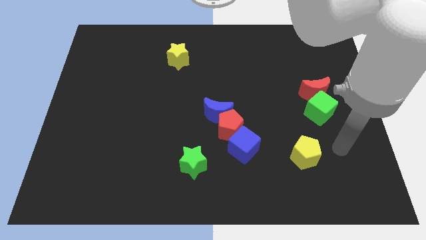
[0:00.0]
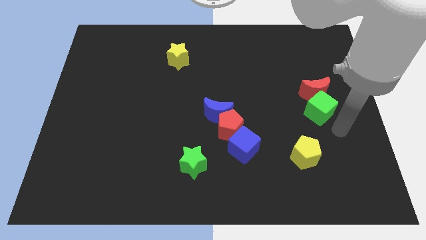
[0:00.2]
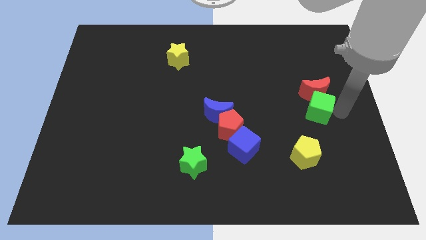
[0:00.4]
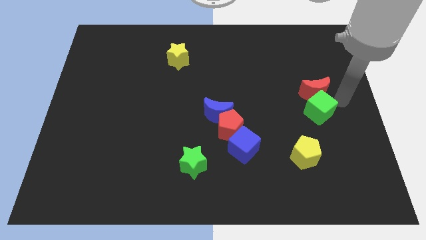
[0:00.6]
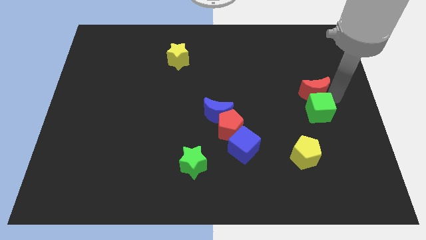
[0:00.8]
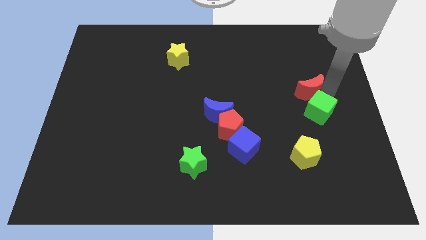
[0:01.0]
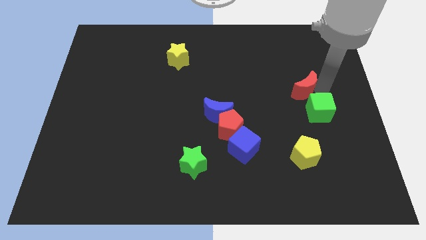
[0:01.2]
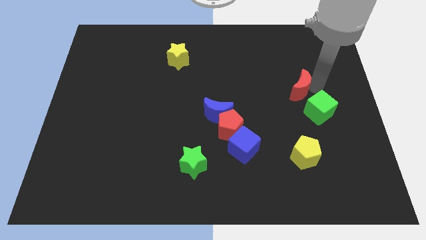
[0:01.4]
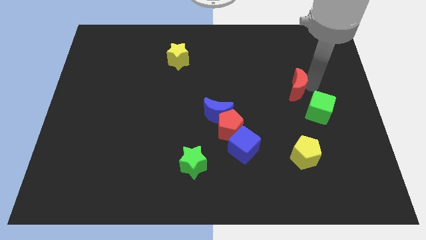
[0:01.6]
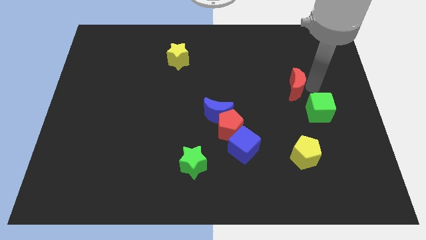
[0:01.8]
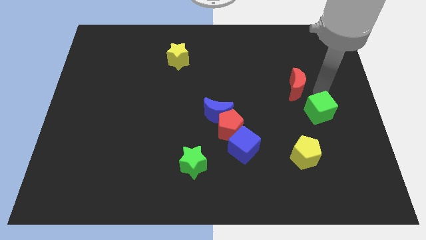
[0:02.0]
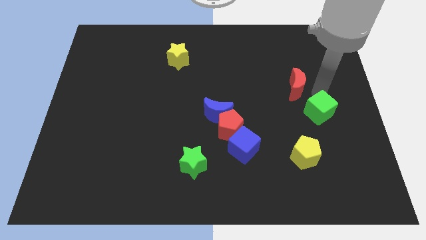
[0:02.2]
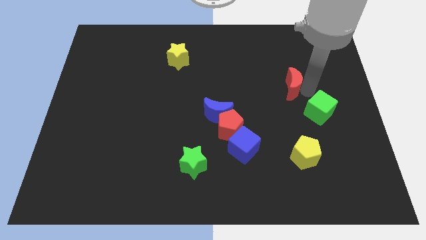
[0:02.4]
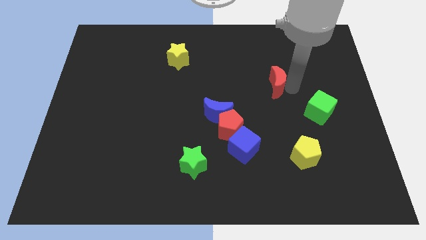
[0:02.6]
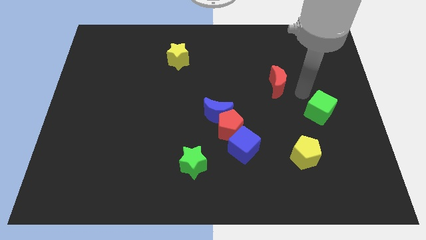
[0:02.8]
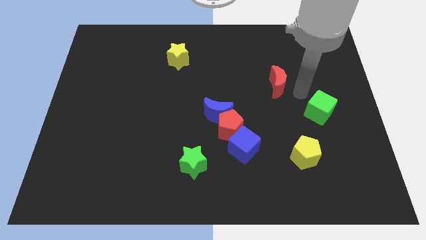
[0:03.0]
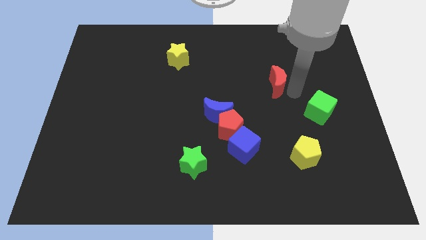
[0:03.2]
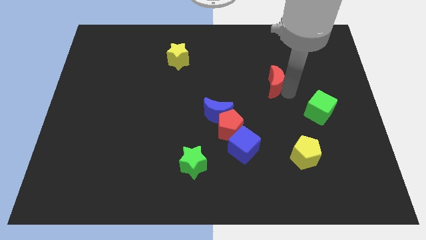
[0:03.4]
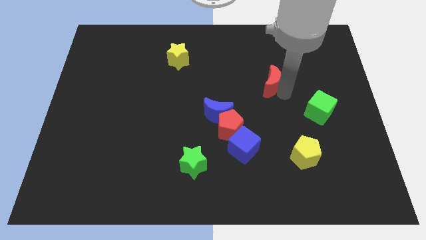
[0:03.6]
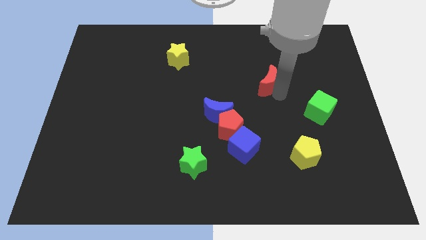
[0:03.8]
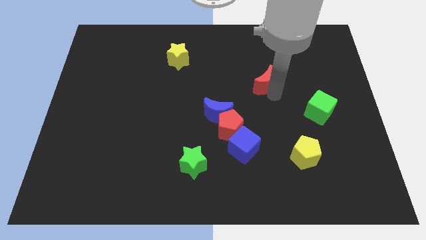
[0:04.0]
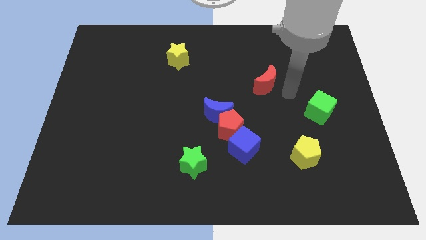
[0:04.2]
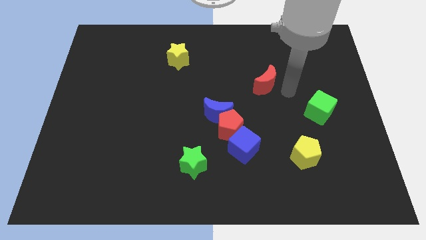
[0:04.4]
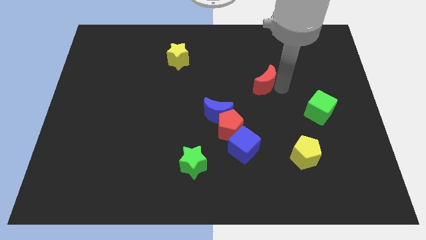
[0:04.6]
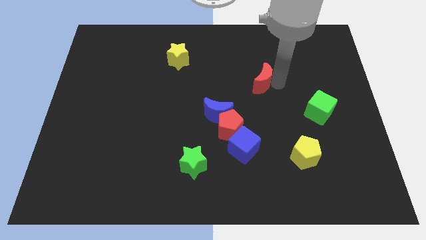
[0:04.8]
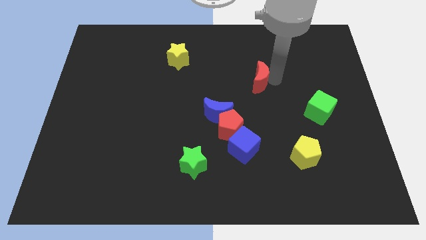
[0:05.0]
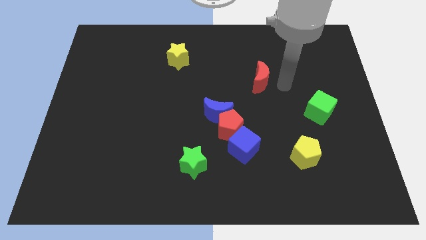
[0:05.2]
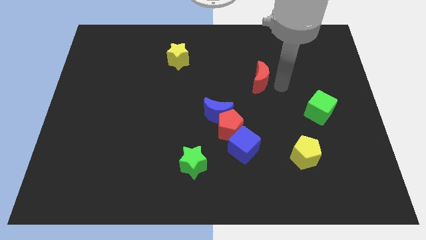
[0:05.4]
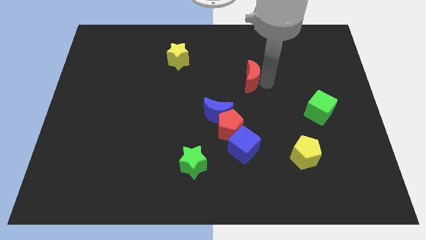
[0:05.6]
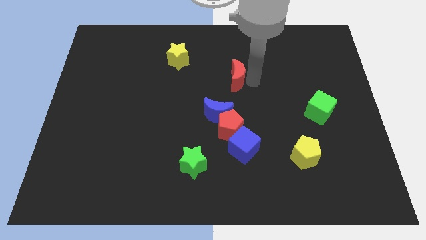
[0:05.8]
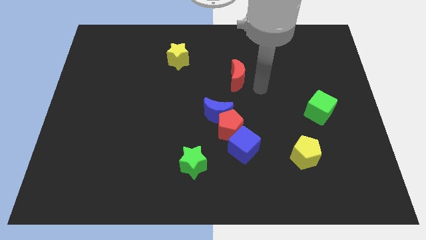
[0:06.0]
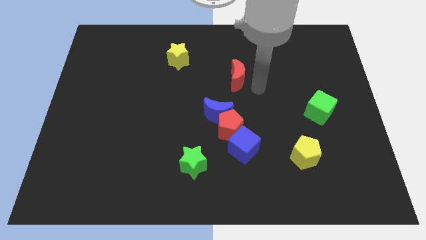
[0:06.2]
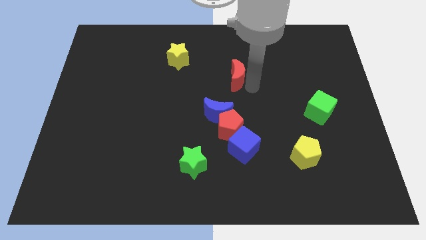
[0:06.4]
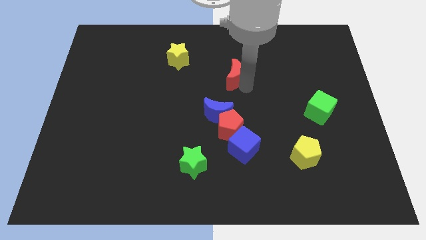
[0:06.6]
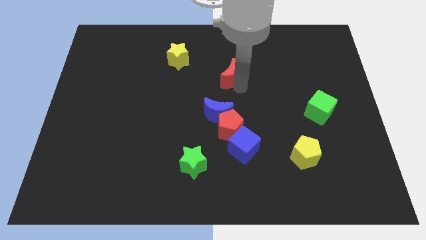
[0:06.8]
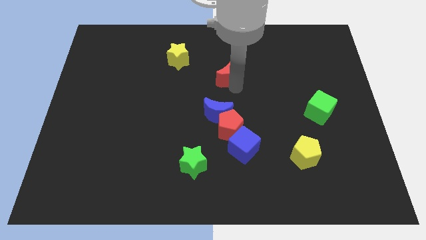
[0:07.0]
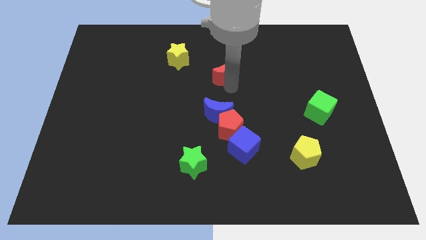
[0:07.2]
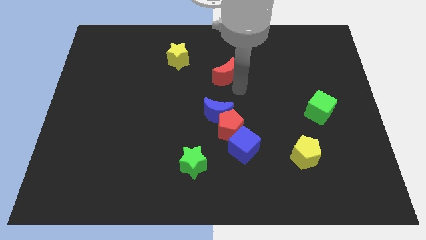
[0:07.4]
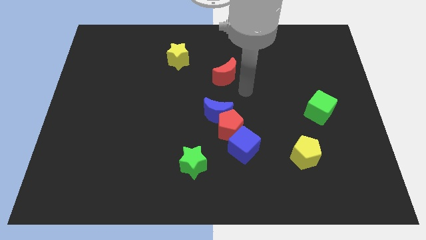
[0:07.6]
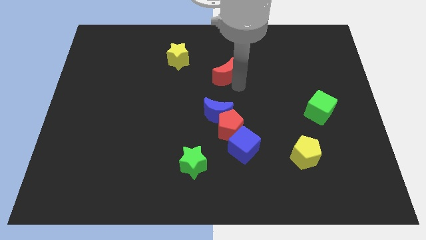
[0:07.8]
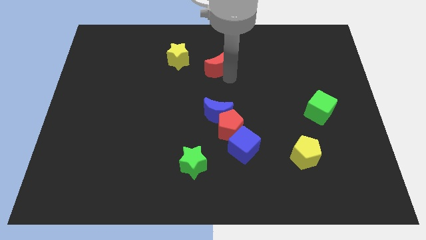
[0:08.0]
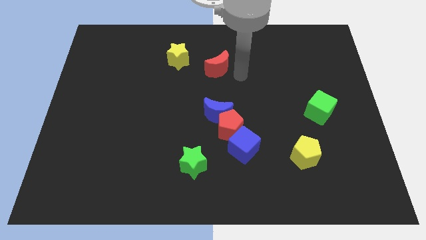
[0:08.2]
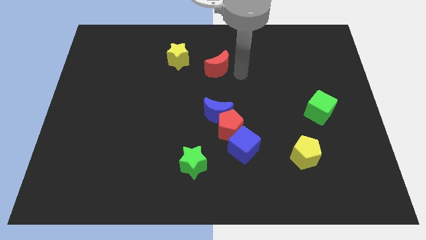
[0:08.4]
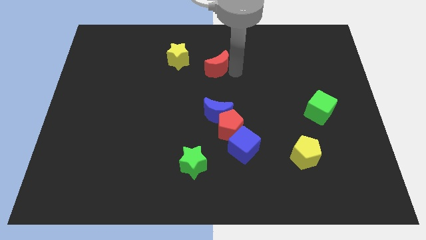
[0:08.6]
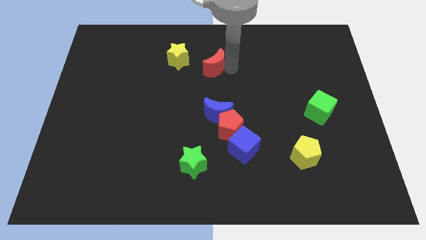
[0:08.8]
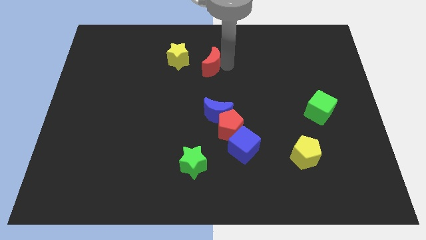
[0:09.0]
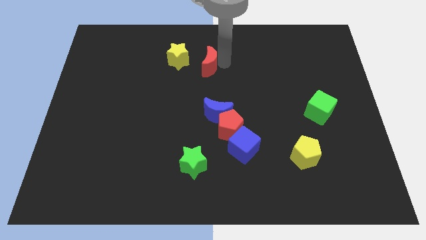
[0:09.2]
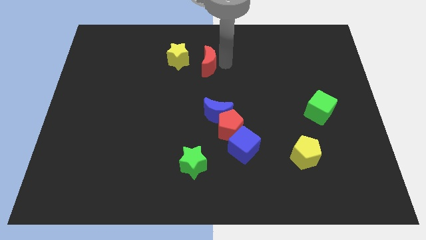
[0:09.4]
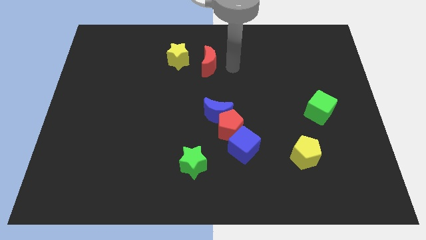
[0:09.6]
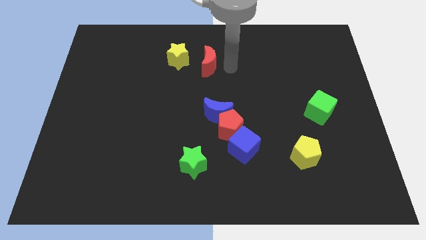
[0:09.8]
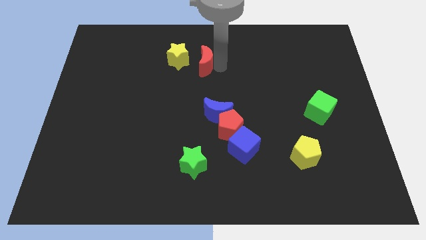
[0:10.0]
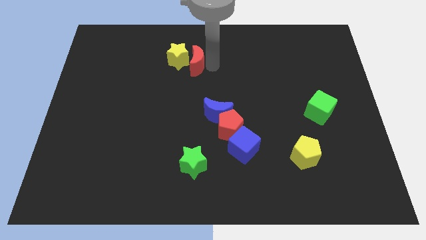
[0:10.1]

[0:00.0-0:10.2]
slide the red moon close to the yellow star

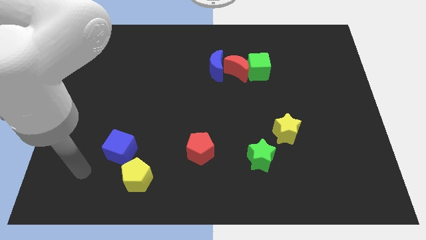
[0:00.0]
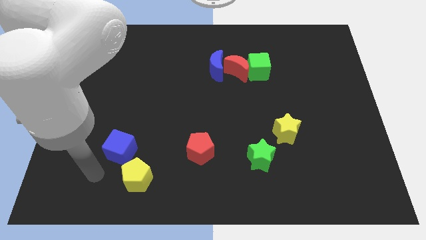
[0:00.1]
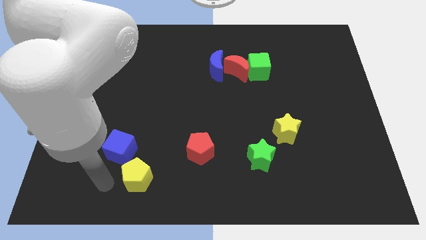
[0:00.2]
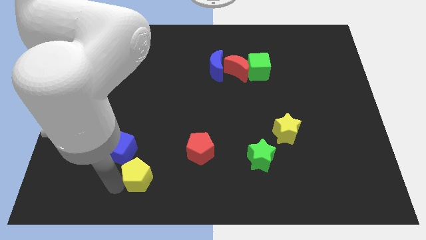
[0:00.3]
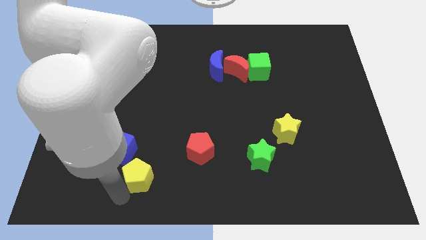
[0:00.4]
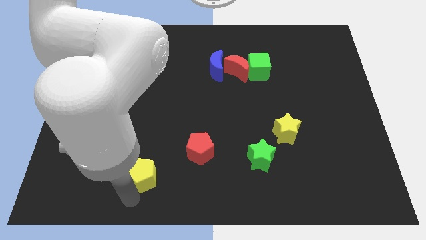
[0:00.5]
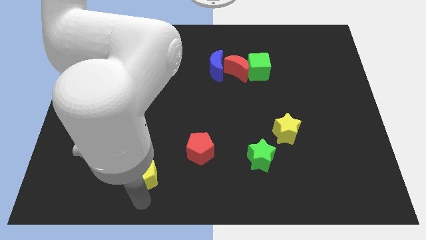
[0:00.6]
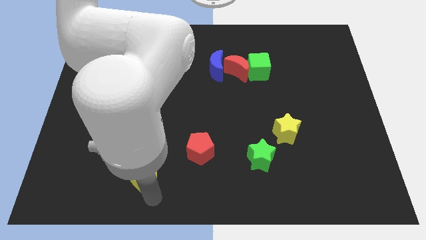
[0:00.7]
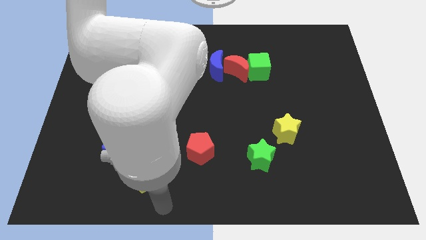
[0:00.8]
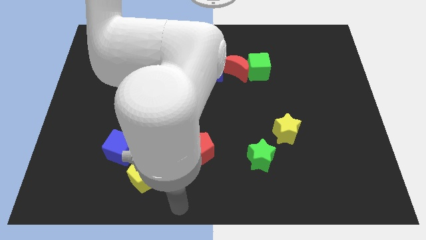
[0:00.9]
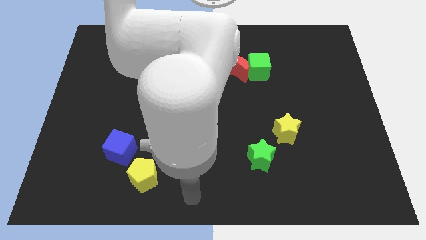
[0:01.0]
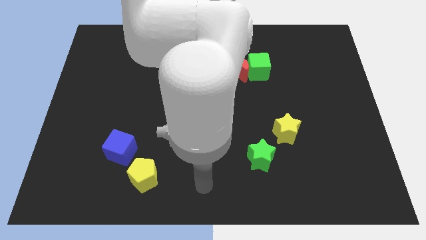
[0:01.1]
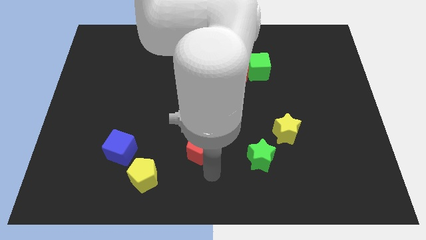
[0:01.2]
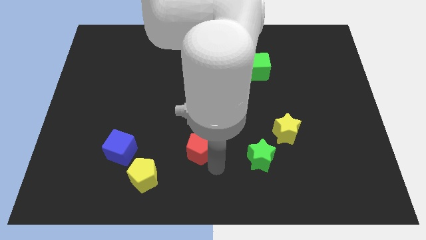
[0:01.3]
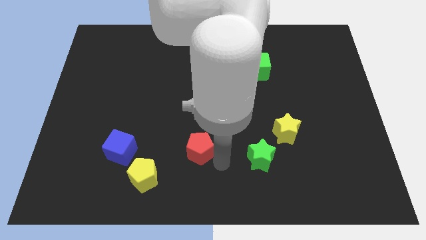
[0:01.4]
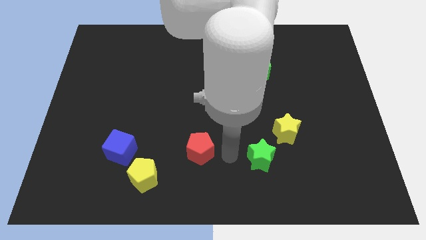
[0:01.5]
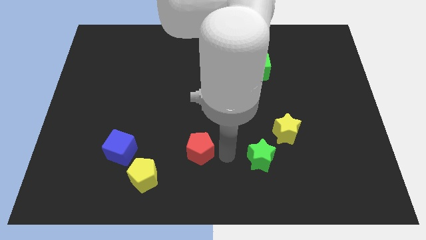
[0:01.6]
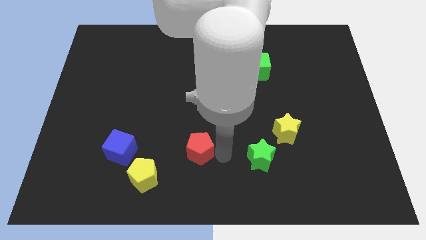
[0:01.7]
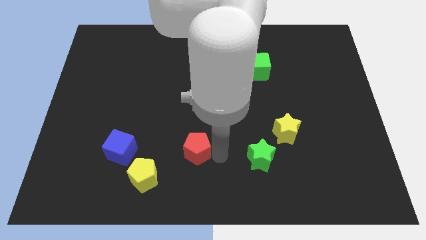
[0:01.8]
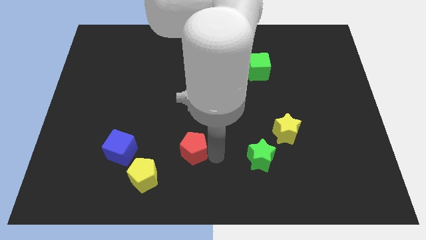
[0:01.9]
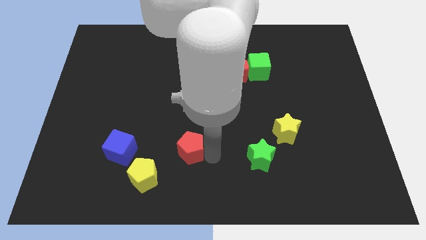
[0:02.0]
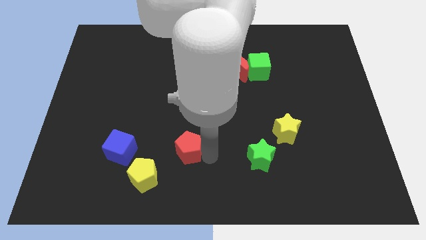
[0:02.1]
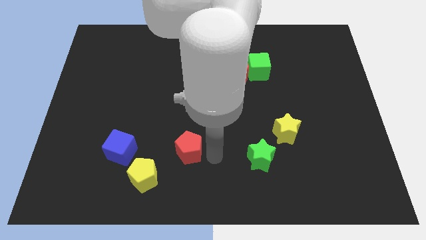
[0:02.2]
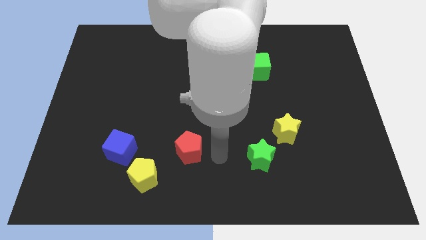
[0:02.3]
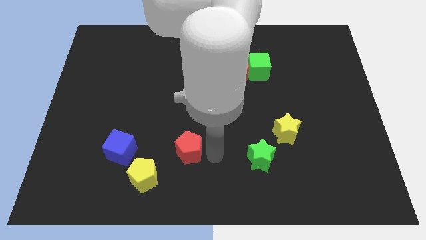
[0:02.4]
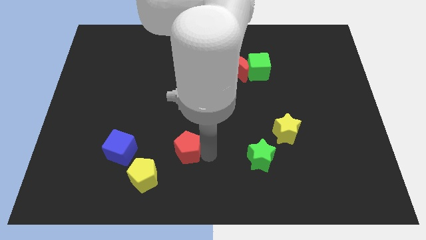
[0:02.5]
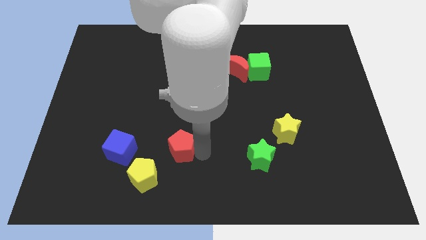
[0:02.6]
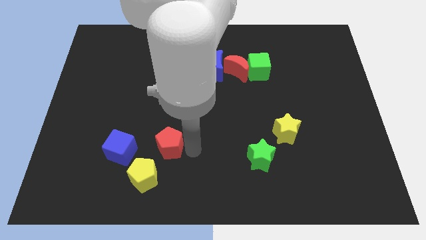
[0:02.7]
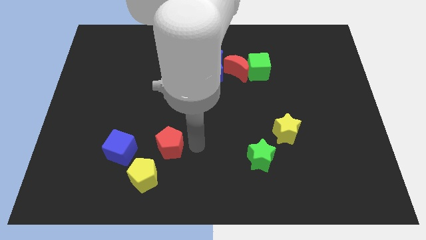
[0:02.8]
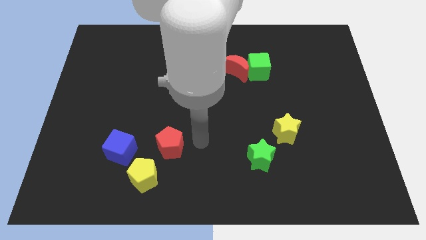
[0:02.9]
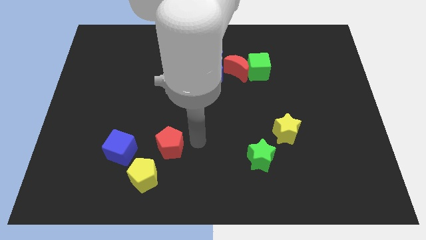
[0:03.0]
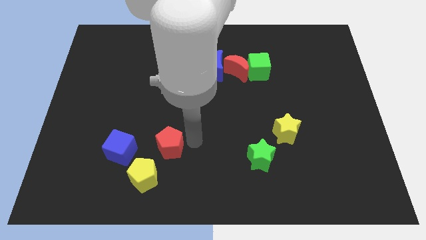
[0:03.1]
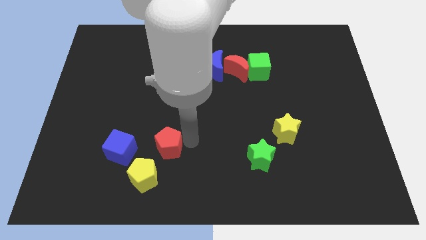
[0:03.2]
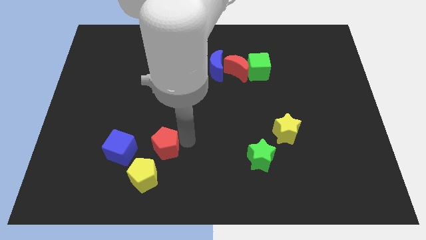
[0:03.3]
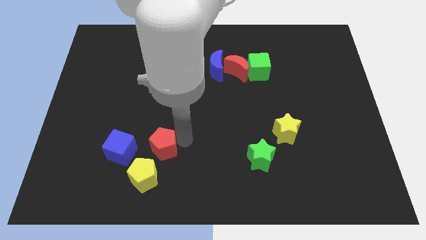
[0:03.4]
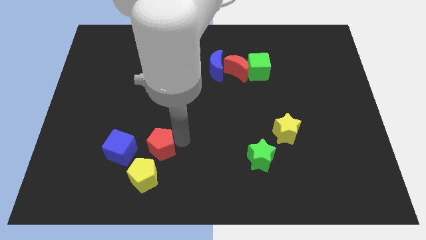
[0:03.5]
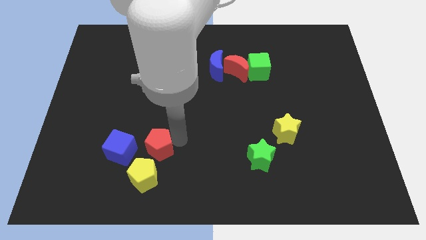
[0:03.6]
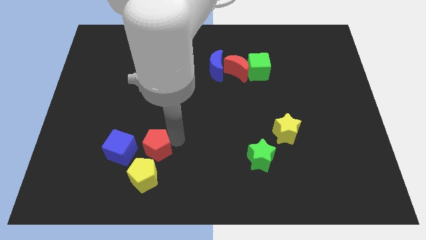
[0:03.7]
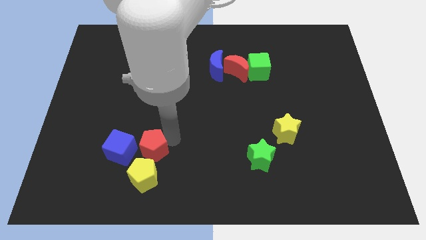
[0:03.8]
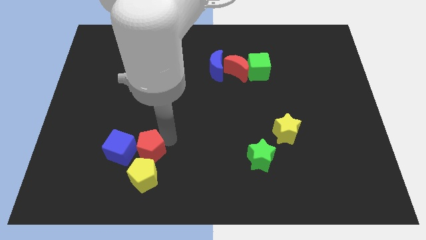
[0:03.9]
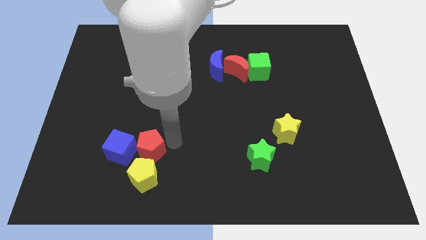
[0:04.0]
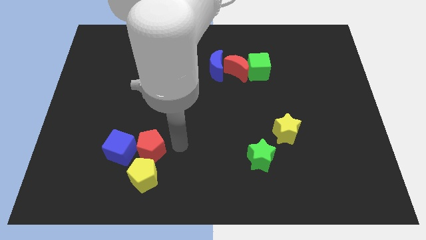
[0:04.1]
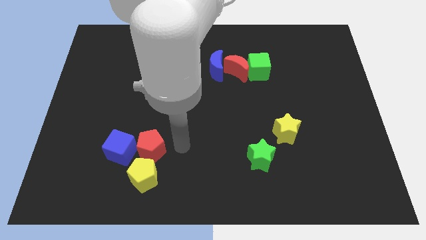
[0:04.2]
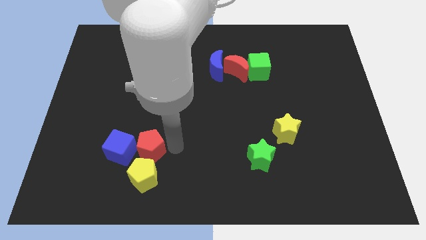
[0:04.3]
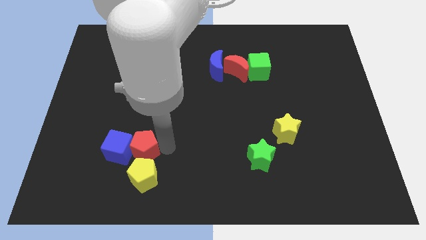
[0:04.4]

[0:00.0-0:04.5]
move the red pentagon to the blue cube
